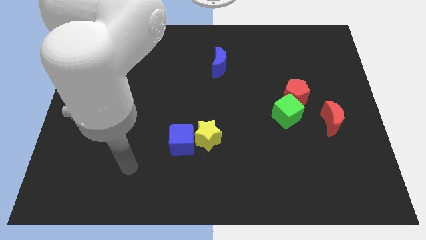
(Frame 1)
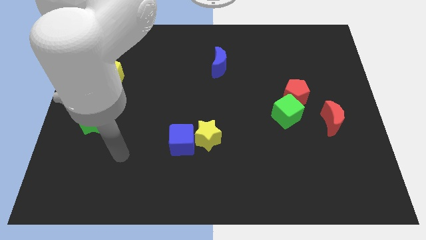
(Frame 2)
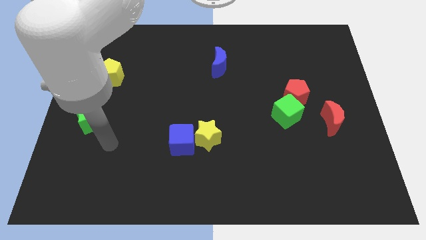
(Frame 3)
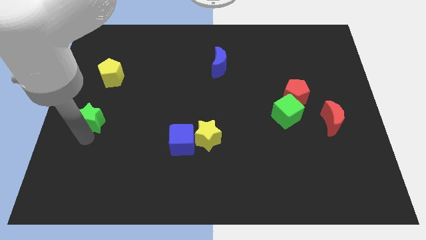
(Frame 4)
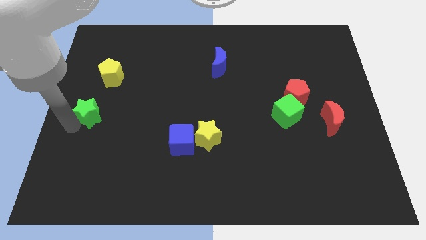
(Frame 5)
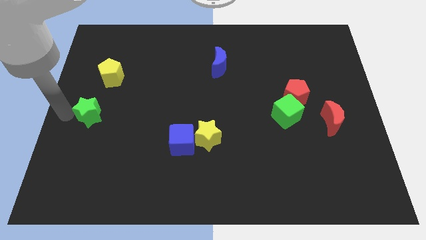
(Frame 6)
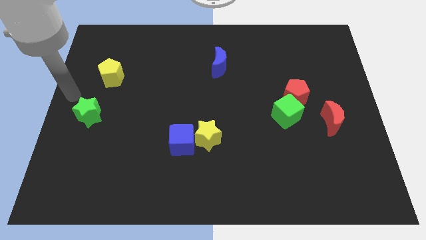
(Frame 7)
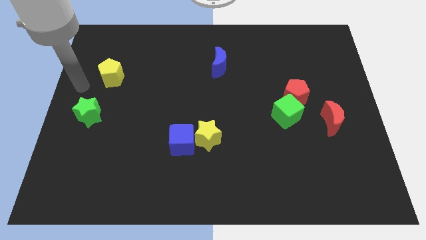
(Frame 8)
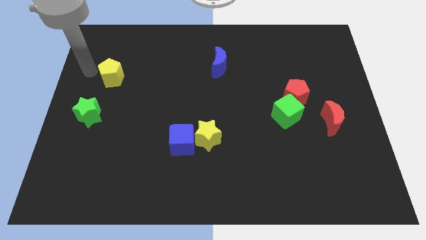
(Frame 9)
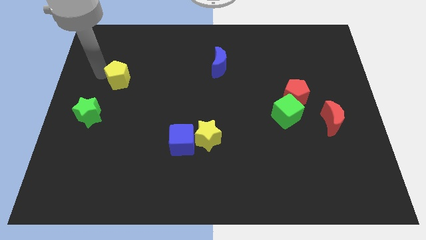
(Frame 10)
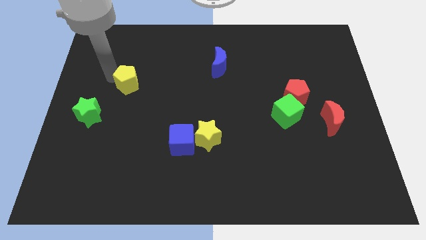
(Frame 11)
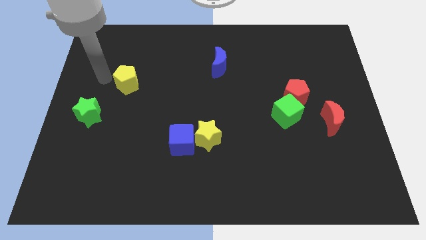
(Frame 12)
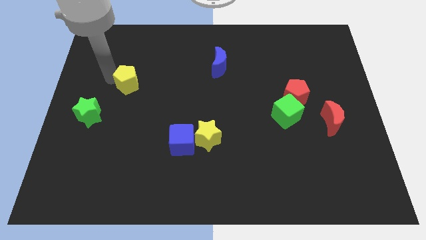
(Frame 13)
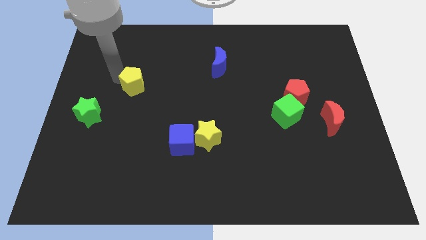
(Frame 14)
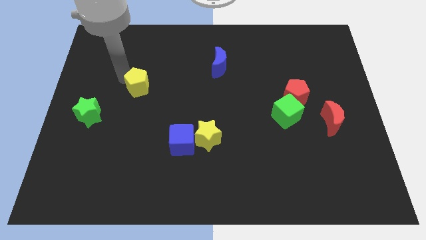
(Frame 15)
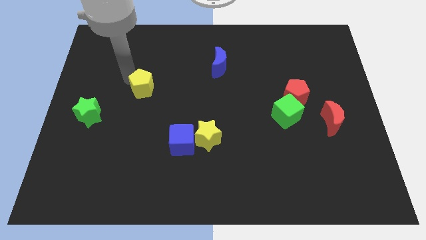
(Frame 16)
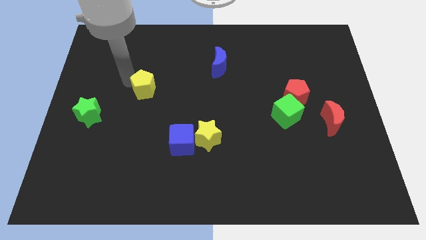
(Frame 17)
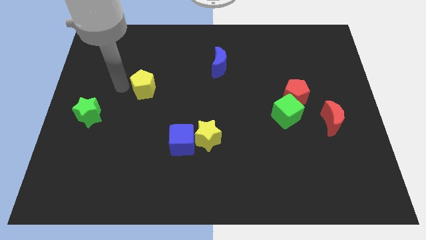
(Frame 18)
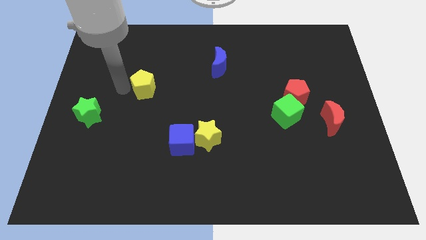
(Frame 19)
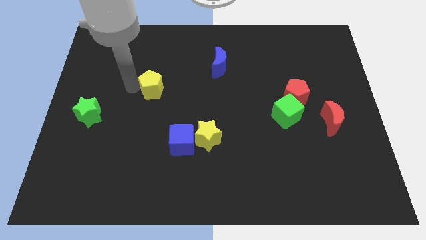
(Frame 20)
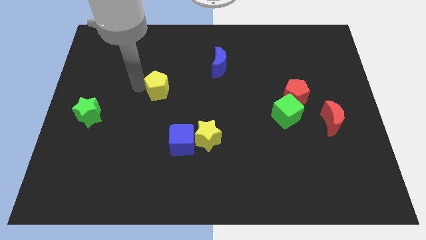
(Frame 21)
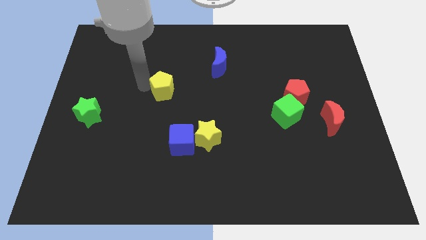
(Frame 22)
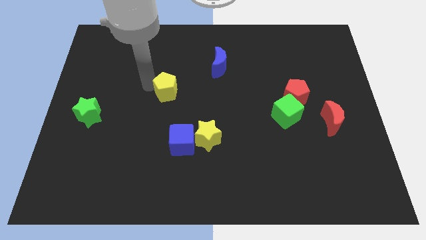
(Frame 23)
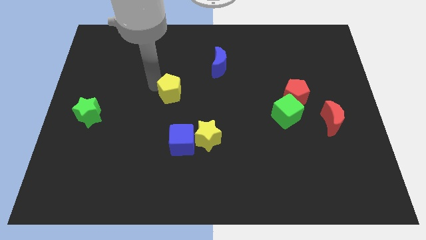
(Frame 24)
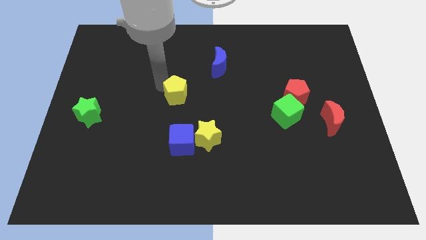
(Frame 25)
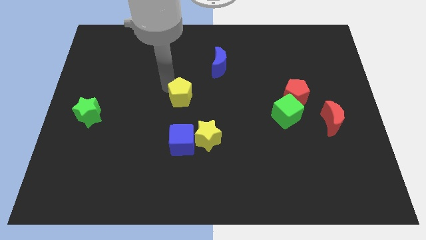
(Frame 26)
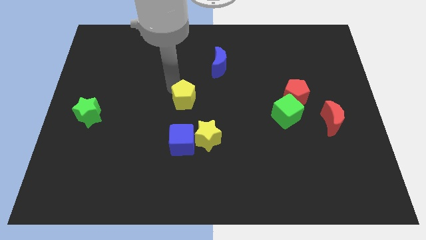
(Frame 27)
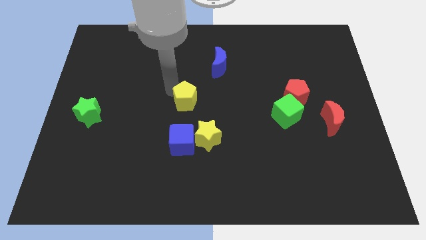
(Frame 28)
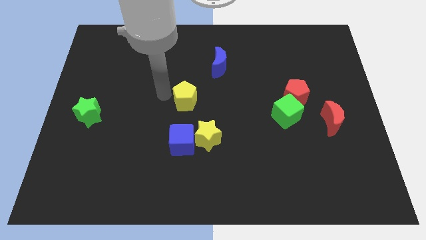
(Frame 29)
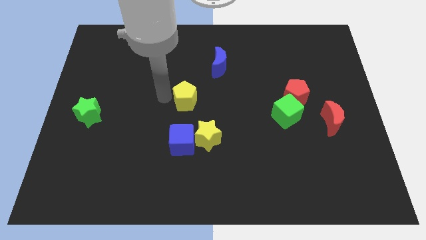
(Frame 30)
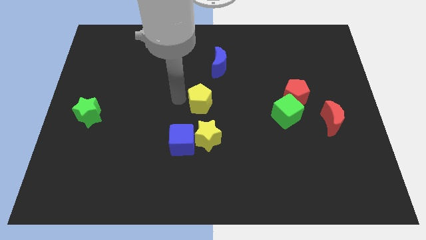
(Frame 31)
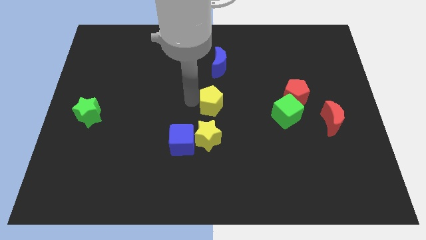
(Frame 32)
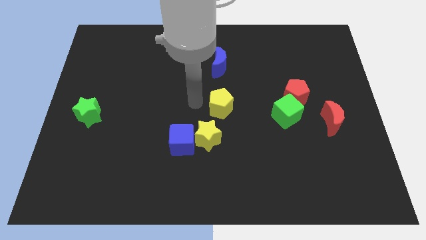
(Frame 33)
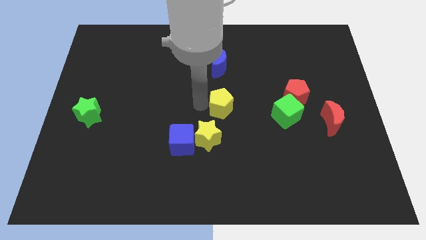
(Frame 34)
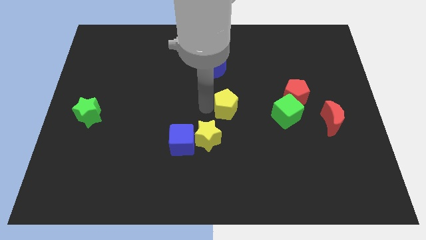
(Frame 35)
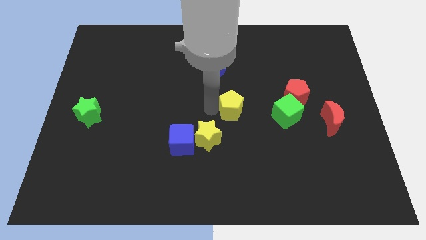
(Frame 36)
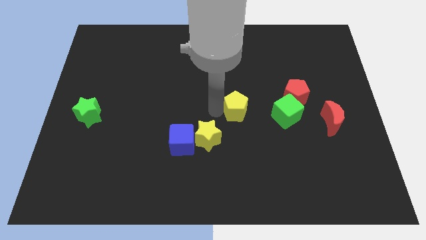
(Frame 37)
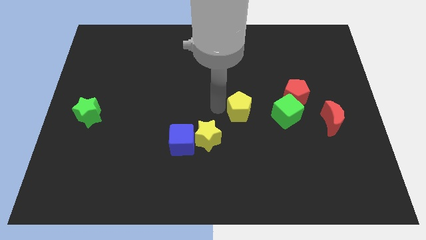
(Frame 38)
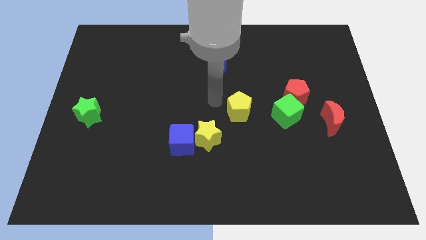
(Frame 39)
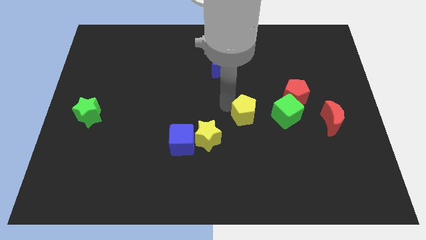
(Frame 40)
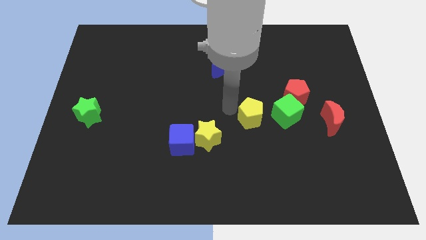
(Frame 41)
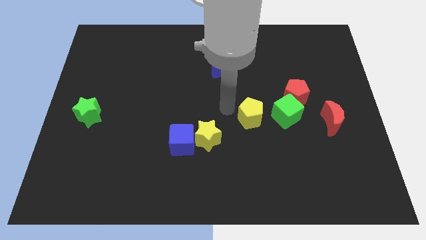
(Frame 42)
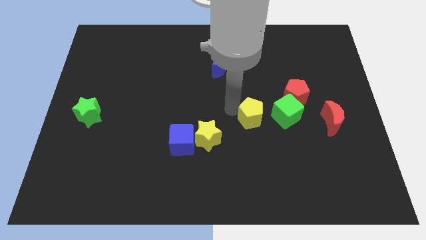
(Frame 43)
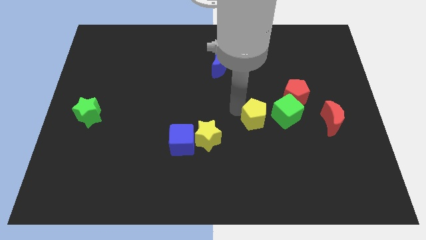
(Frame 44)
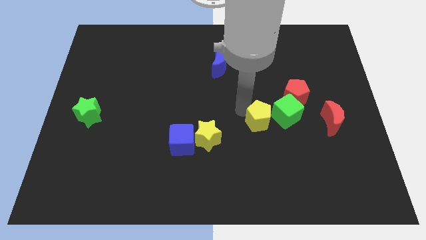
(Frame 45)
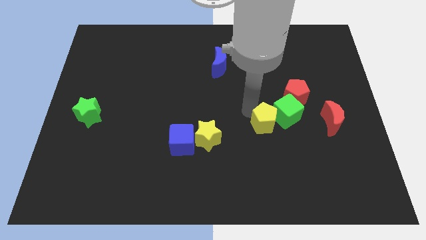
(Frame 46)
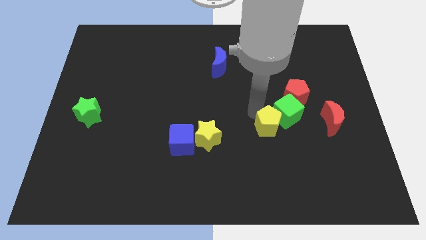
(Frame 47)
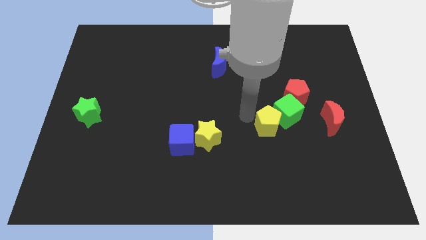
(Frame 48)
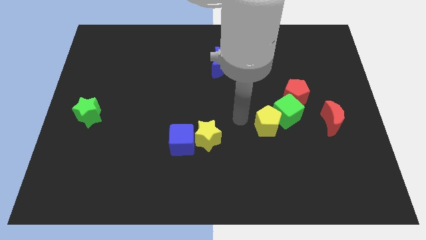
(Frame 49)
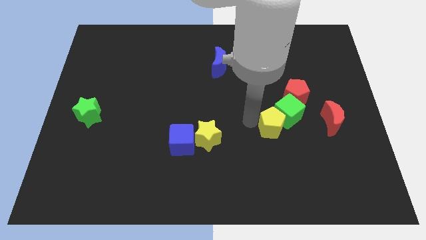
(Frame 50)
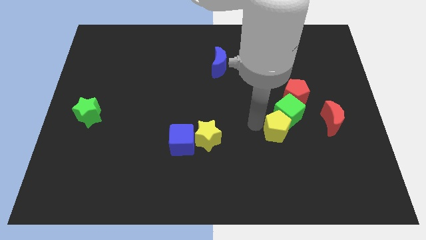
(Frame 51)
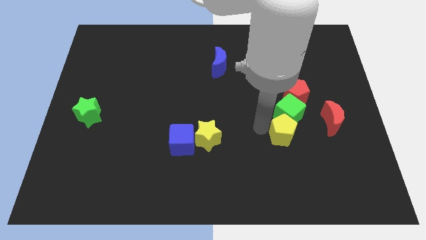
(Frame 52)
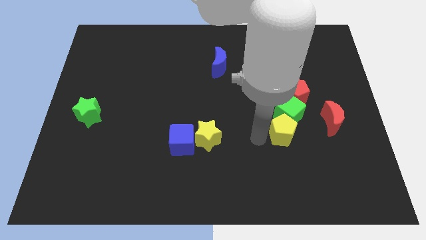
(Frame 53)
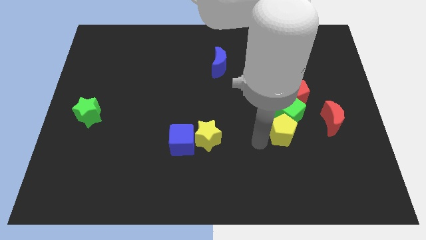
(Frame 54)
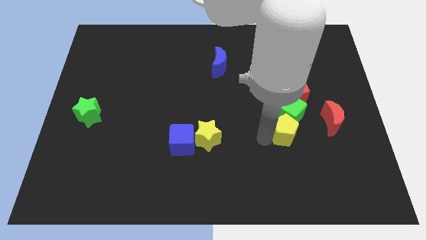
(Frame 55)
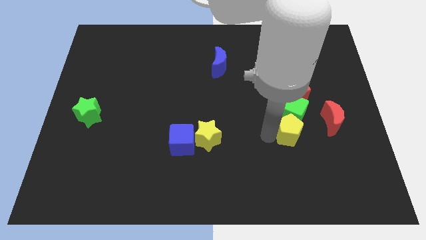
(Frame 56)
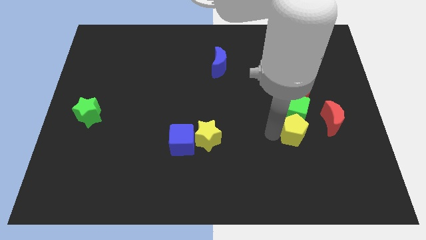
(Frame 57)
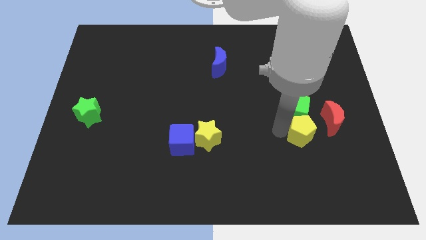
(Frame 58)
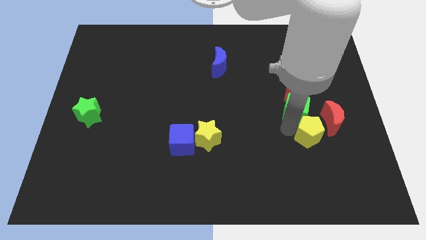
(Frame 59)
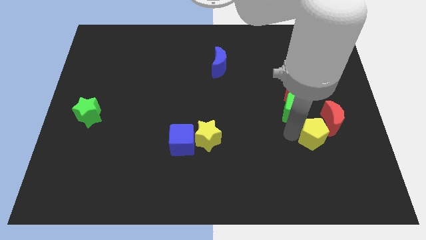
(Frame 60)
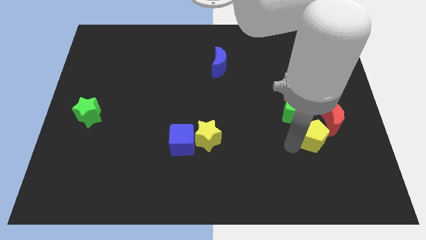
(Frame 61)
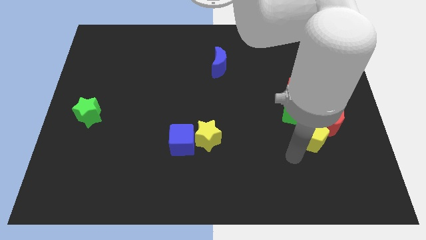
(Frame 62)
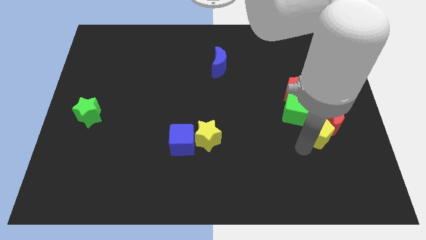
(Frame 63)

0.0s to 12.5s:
put the yellow pentagon close to the red moon
